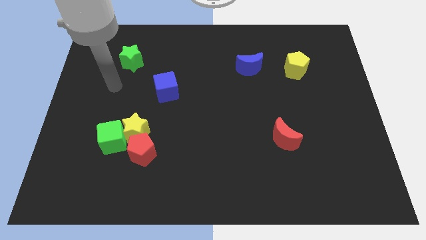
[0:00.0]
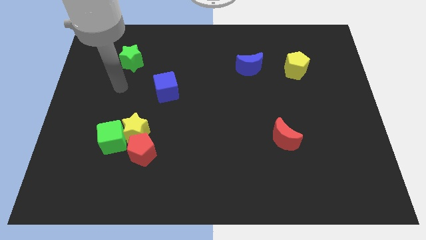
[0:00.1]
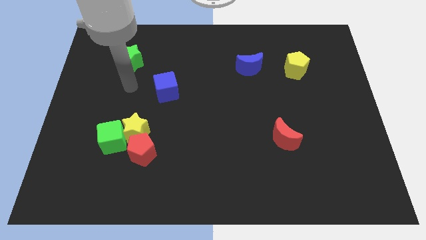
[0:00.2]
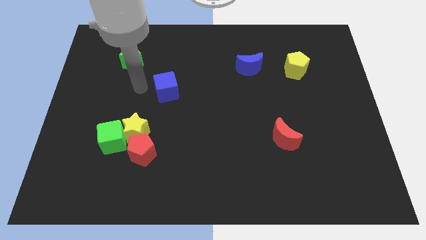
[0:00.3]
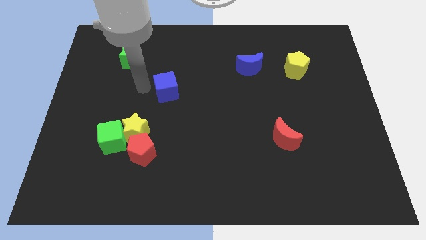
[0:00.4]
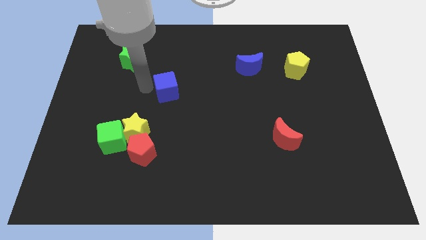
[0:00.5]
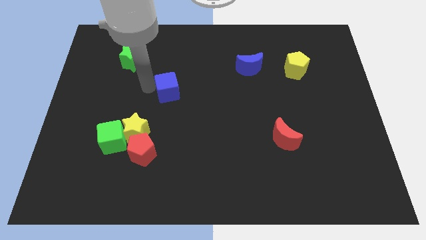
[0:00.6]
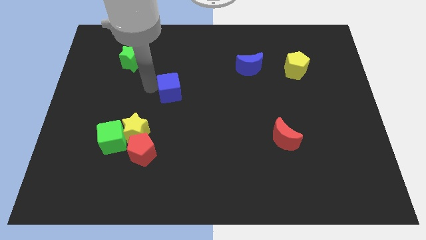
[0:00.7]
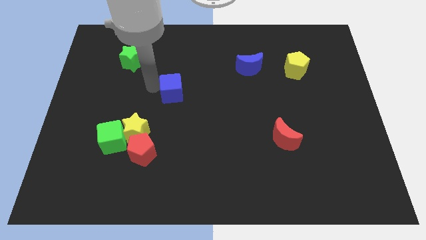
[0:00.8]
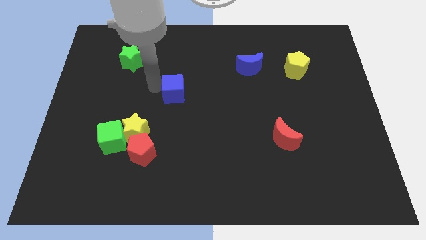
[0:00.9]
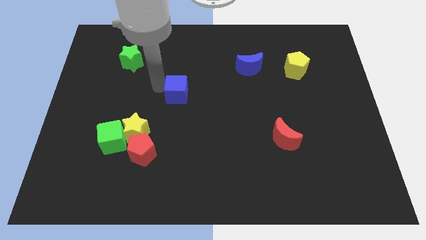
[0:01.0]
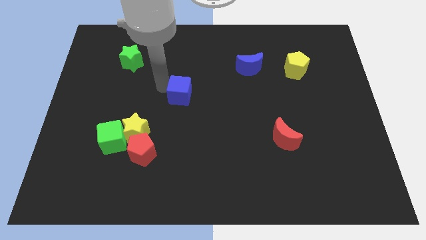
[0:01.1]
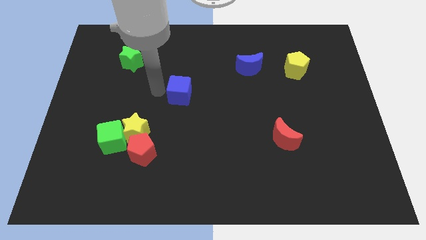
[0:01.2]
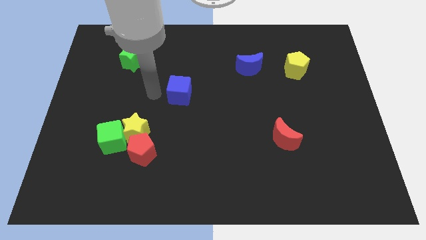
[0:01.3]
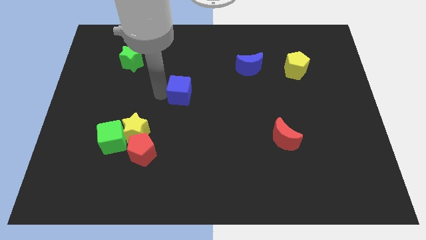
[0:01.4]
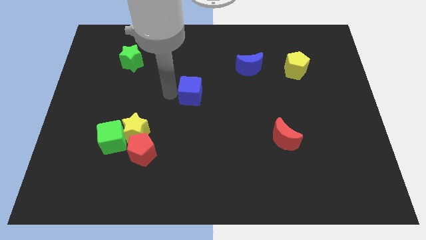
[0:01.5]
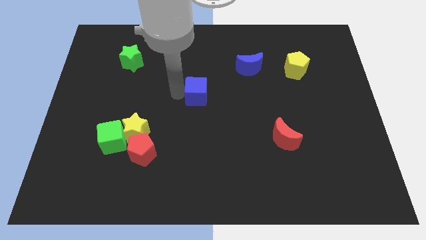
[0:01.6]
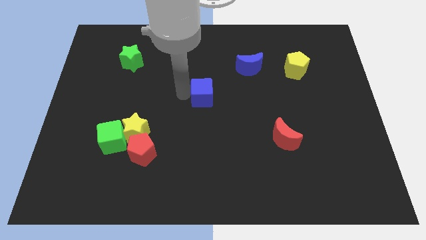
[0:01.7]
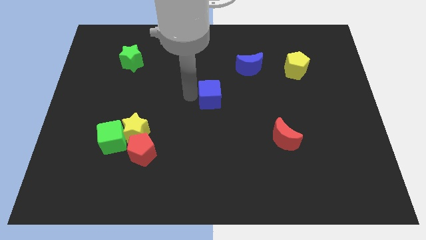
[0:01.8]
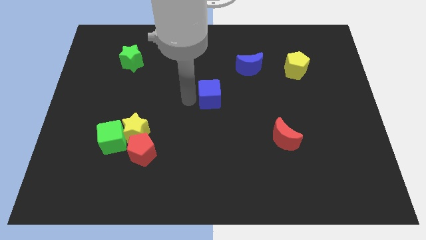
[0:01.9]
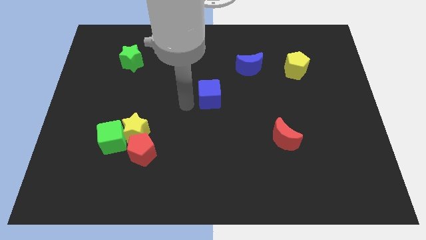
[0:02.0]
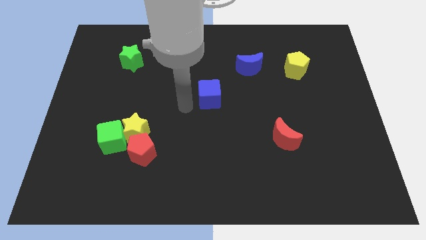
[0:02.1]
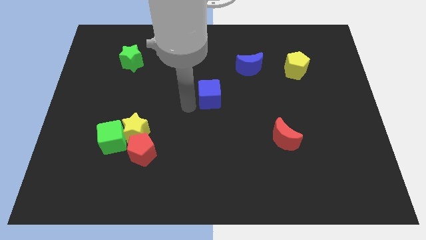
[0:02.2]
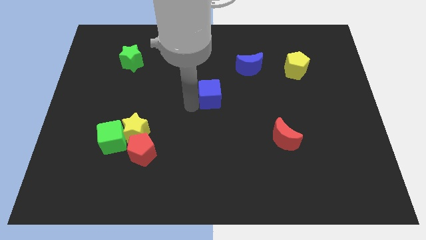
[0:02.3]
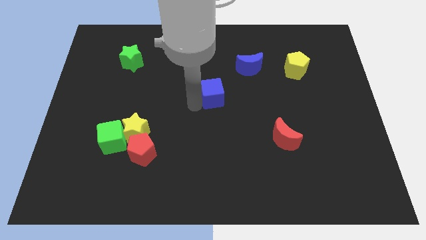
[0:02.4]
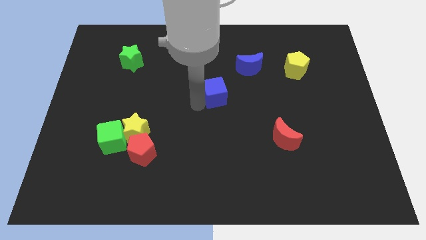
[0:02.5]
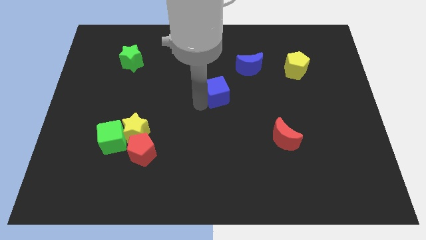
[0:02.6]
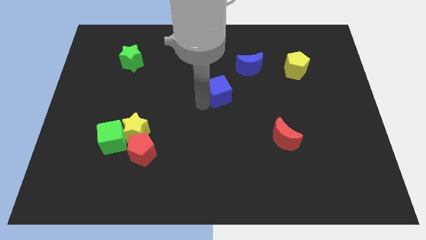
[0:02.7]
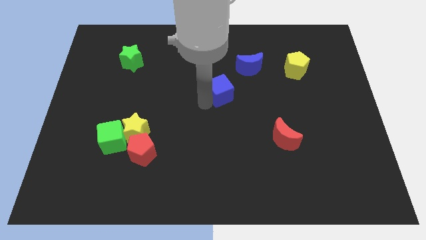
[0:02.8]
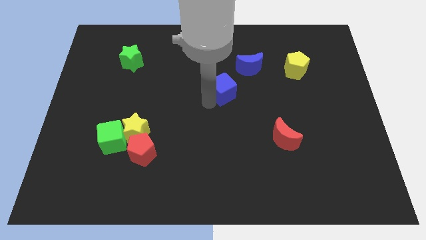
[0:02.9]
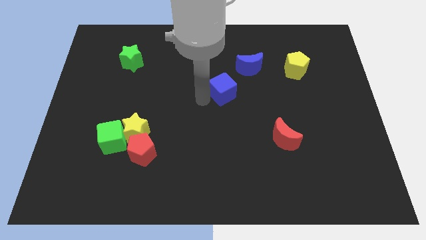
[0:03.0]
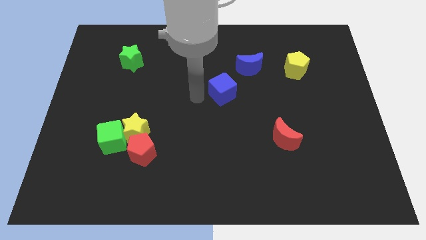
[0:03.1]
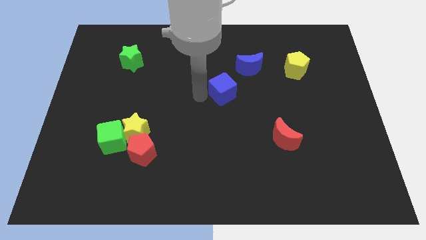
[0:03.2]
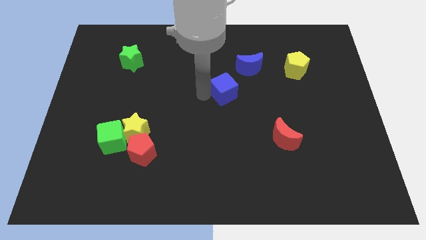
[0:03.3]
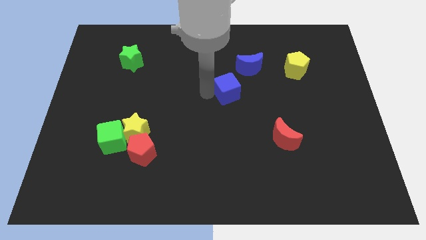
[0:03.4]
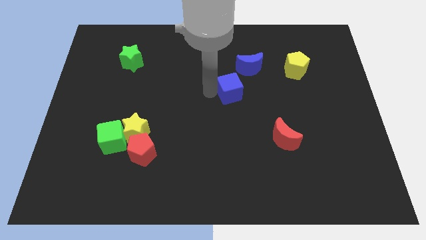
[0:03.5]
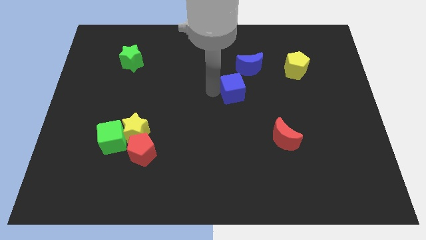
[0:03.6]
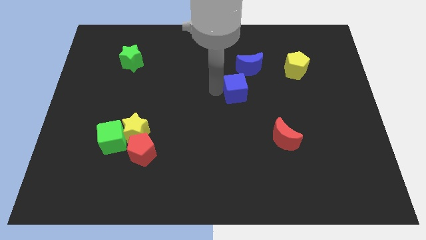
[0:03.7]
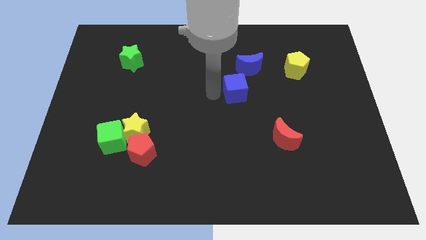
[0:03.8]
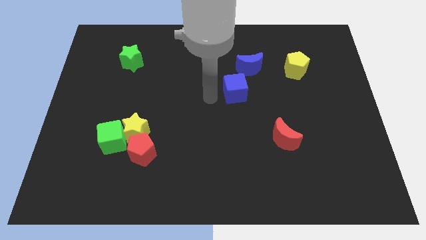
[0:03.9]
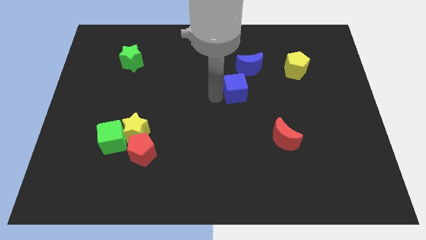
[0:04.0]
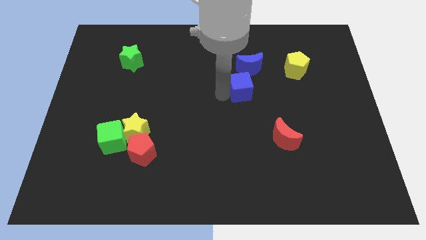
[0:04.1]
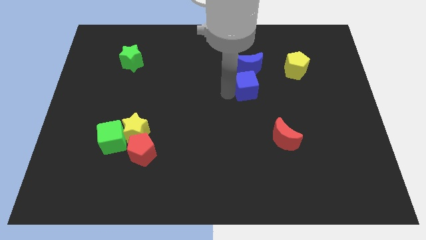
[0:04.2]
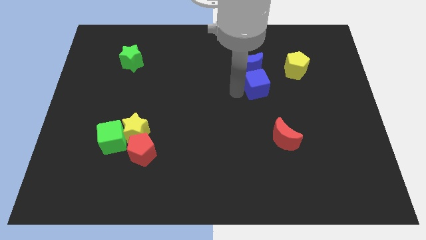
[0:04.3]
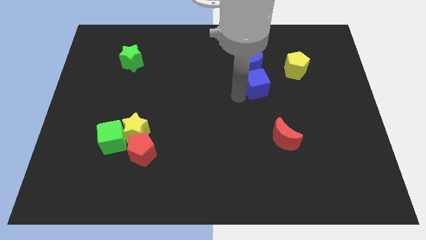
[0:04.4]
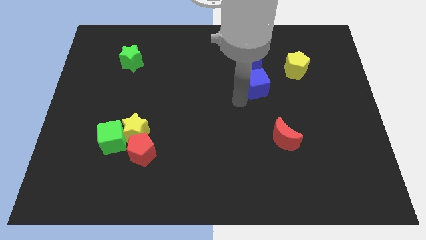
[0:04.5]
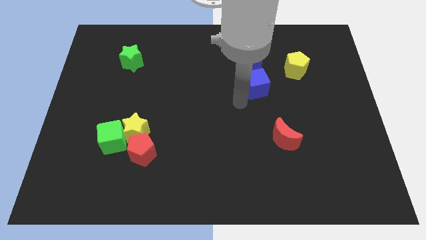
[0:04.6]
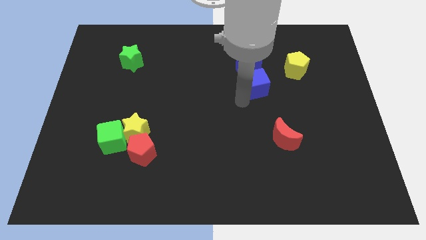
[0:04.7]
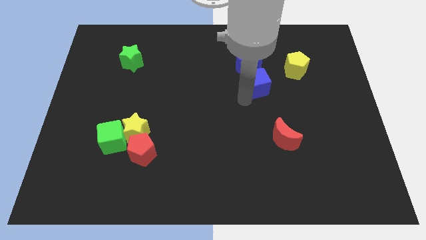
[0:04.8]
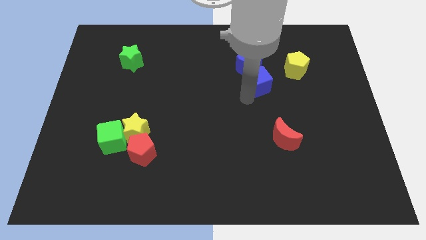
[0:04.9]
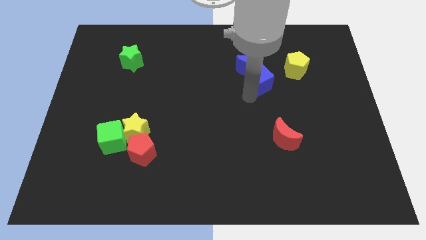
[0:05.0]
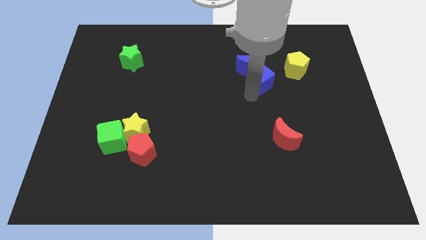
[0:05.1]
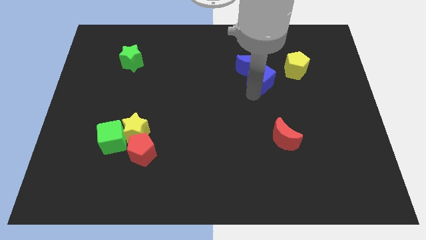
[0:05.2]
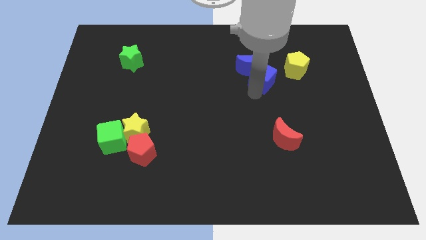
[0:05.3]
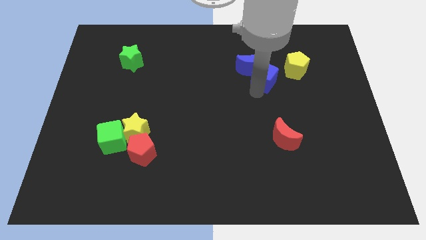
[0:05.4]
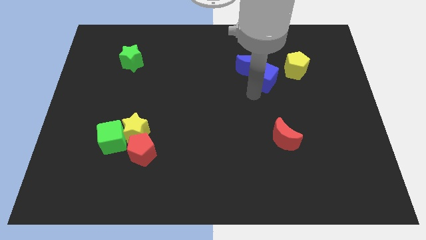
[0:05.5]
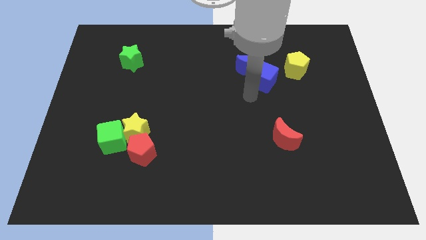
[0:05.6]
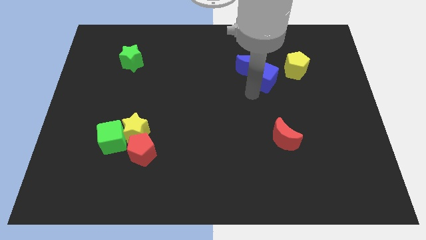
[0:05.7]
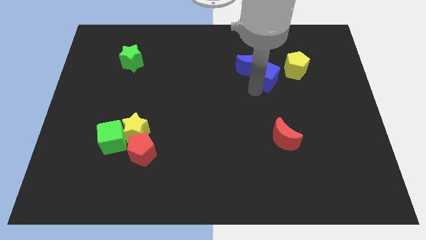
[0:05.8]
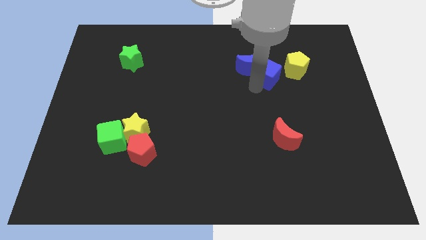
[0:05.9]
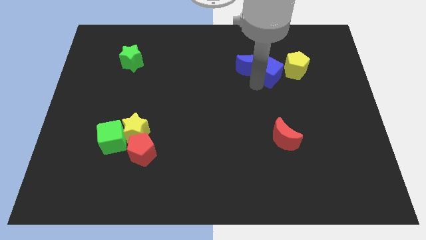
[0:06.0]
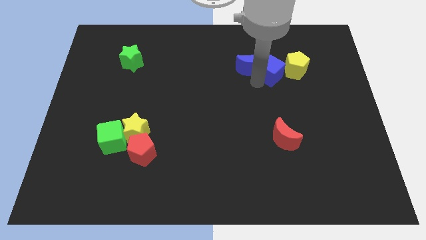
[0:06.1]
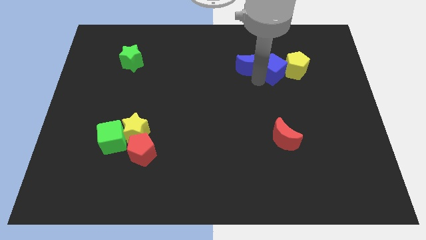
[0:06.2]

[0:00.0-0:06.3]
push the blue cube next to the yellow pentagon

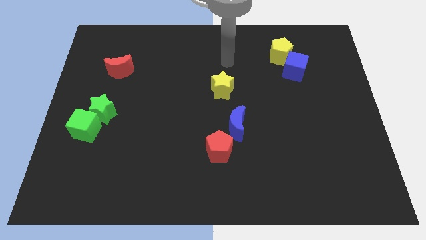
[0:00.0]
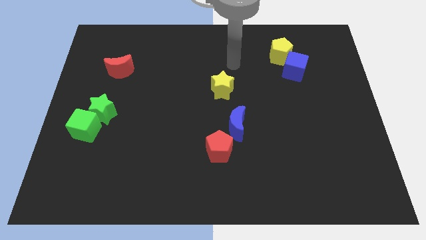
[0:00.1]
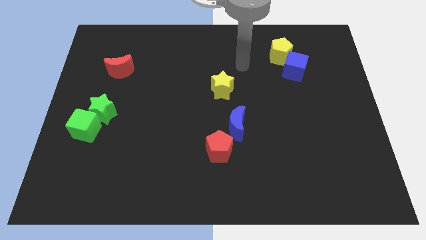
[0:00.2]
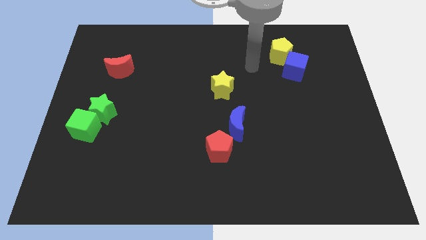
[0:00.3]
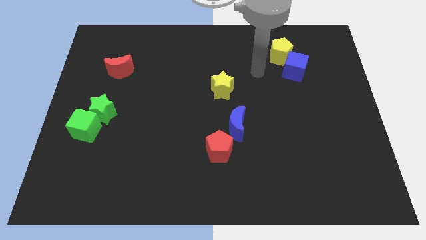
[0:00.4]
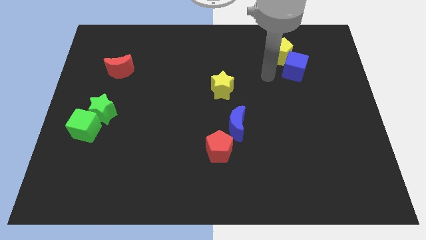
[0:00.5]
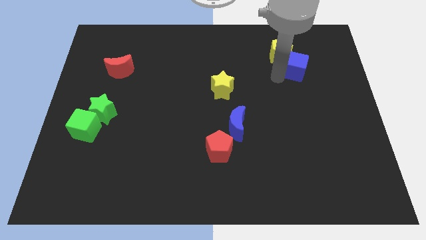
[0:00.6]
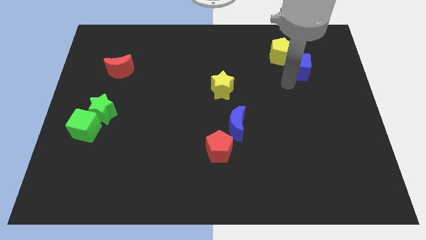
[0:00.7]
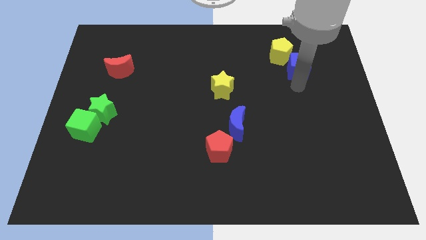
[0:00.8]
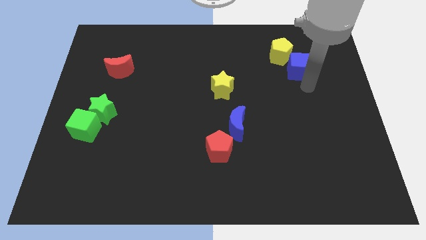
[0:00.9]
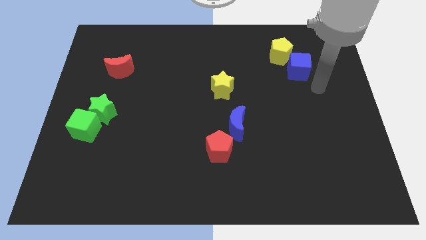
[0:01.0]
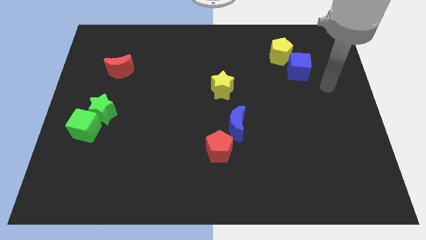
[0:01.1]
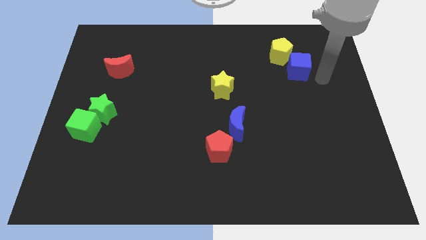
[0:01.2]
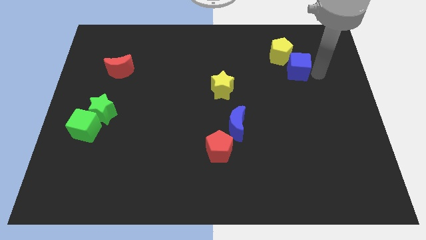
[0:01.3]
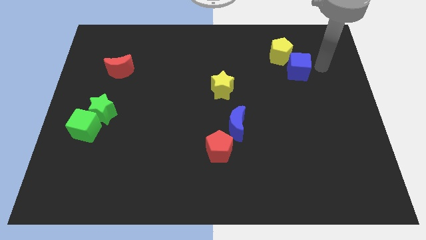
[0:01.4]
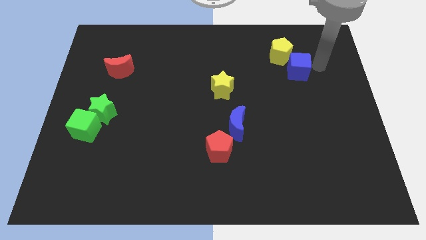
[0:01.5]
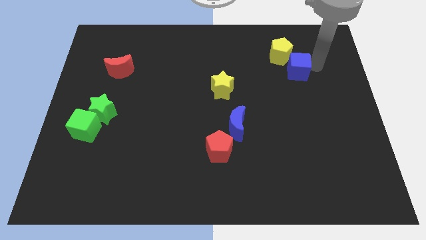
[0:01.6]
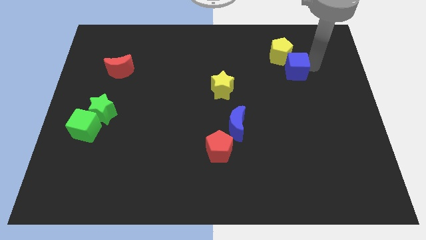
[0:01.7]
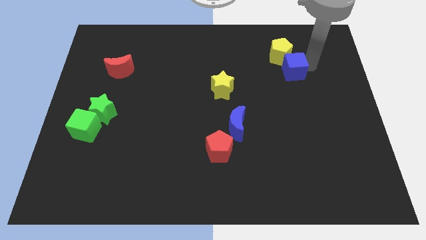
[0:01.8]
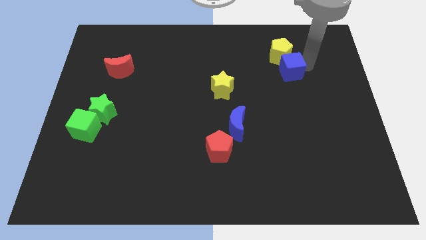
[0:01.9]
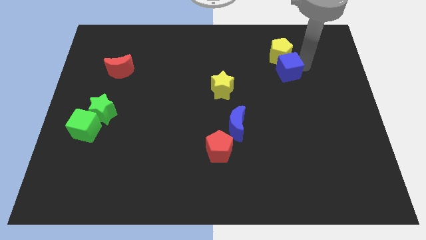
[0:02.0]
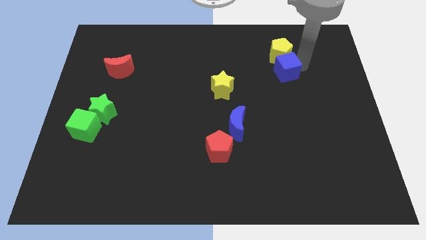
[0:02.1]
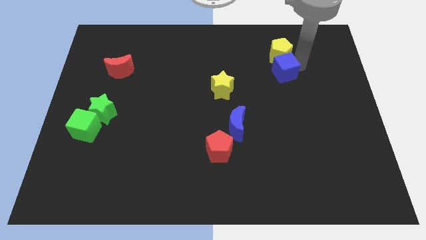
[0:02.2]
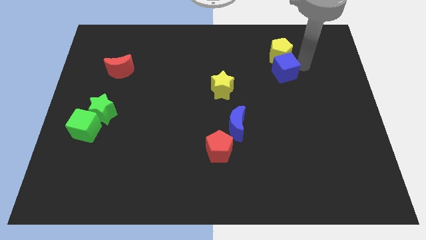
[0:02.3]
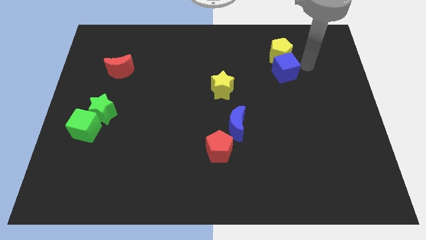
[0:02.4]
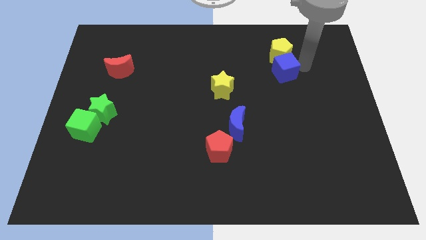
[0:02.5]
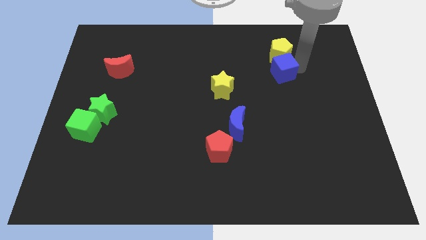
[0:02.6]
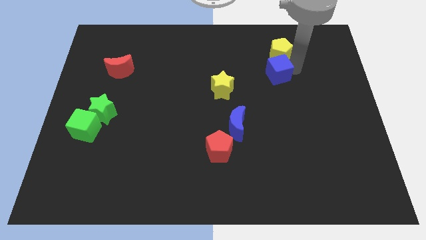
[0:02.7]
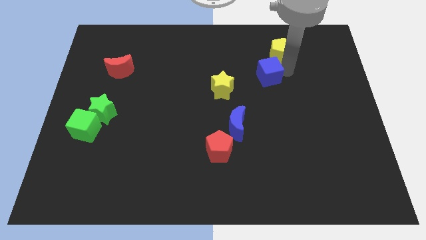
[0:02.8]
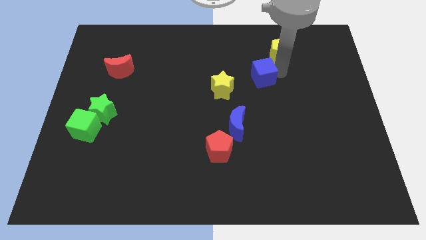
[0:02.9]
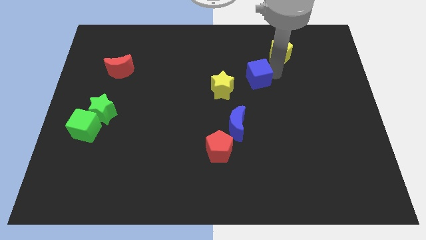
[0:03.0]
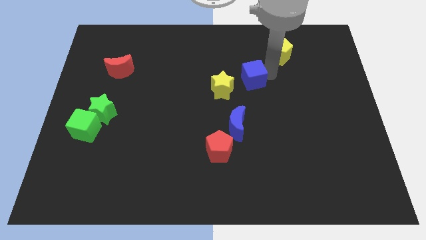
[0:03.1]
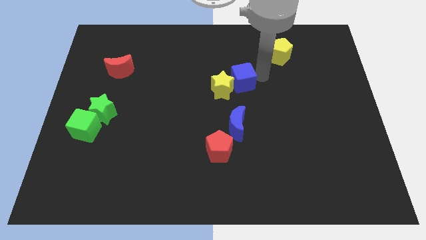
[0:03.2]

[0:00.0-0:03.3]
move the blue cube towards the yellow star
